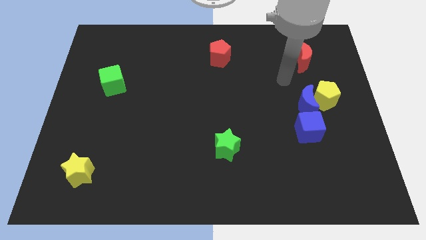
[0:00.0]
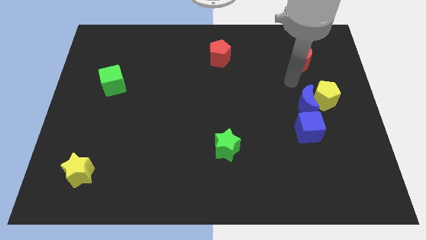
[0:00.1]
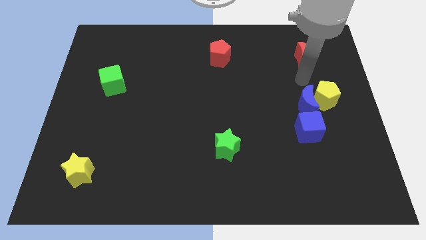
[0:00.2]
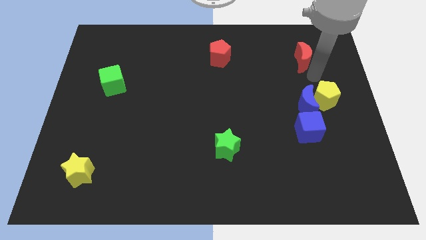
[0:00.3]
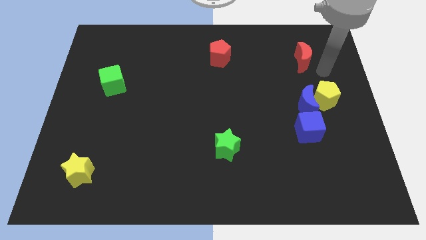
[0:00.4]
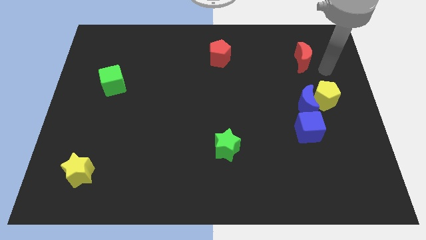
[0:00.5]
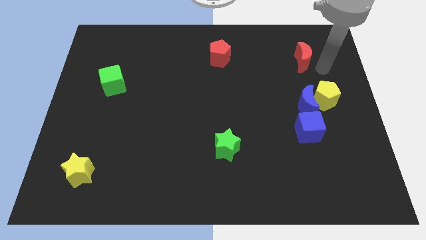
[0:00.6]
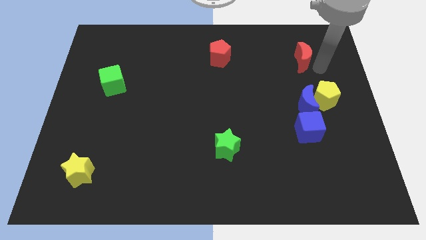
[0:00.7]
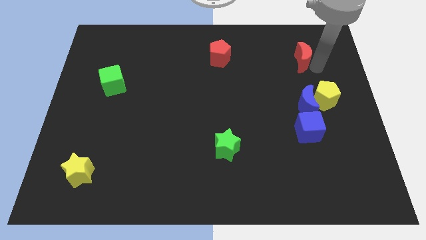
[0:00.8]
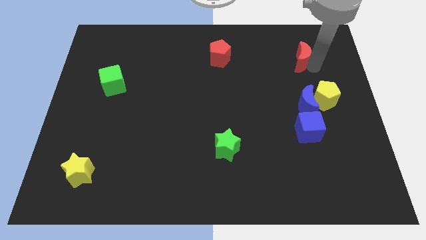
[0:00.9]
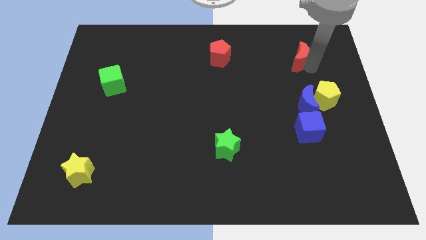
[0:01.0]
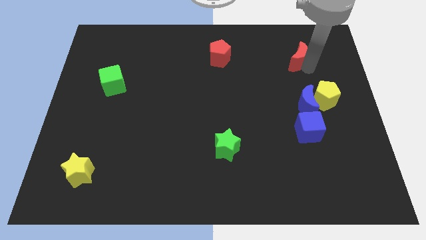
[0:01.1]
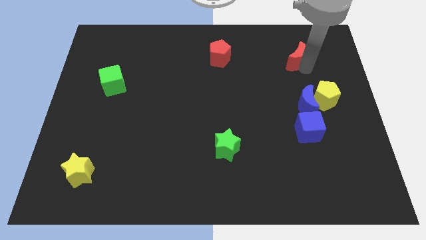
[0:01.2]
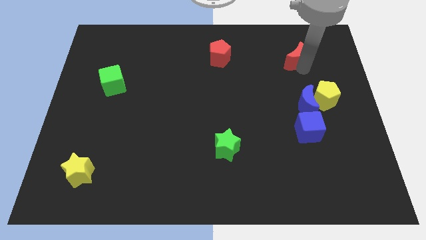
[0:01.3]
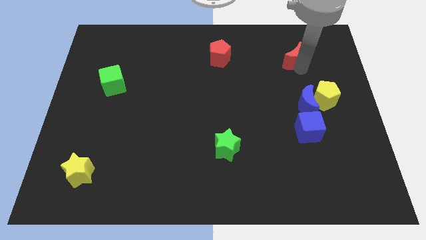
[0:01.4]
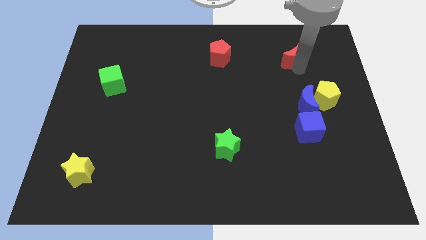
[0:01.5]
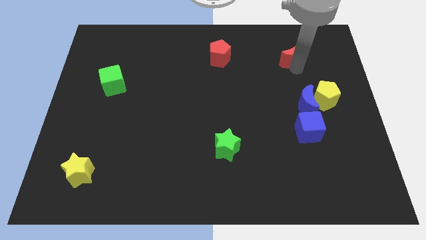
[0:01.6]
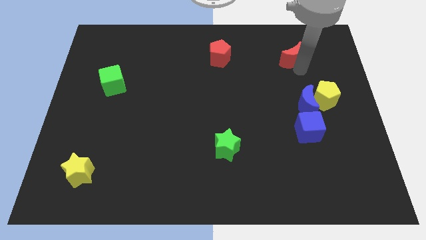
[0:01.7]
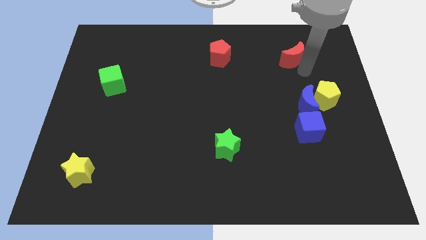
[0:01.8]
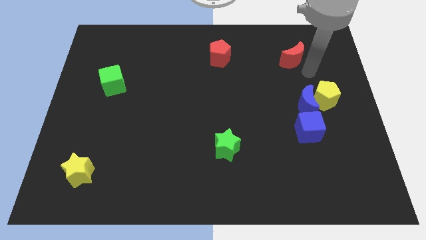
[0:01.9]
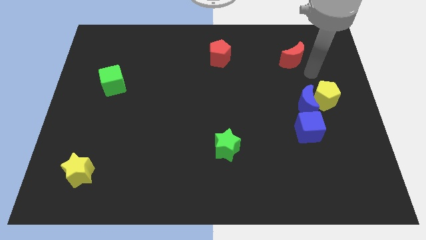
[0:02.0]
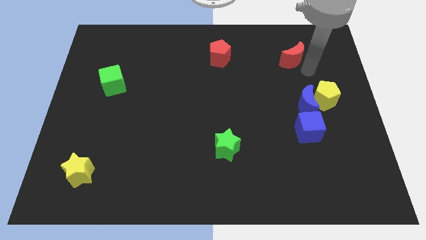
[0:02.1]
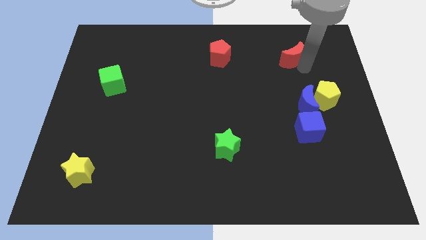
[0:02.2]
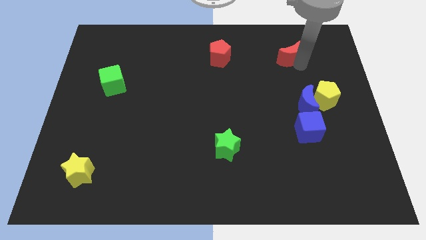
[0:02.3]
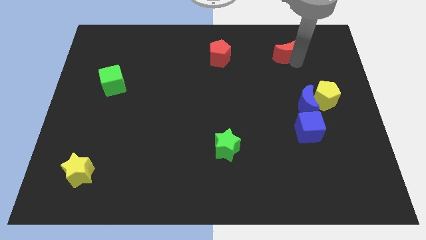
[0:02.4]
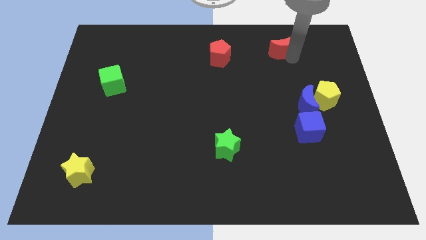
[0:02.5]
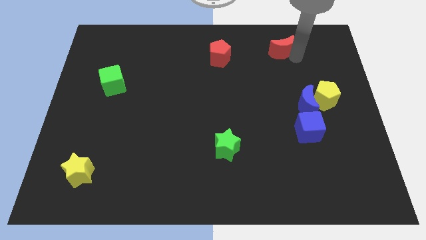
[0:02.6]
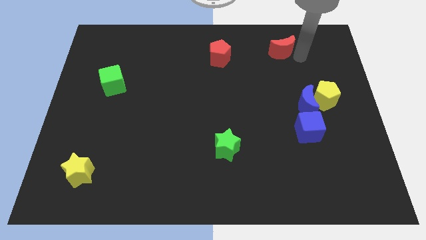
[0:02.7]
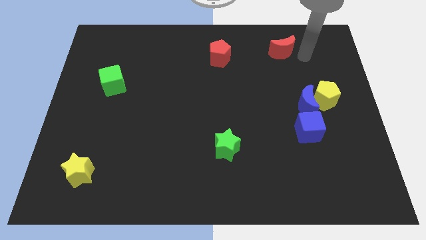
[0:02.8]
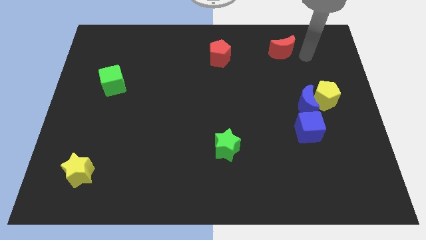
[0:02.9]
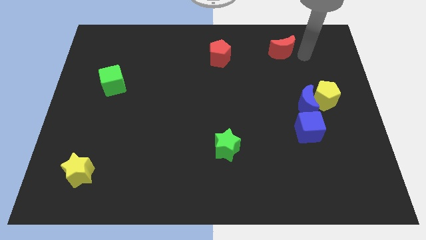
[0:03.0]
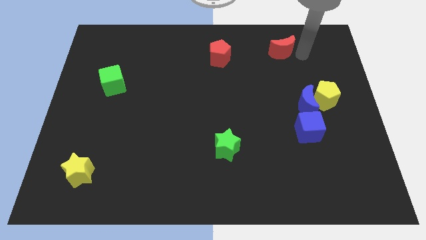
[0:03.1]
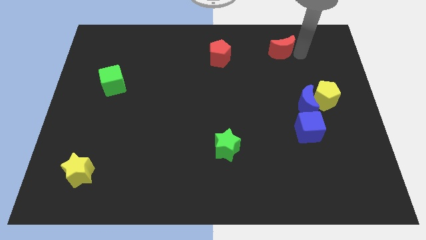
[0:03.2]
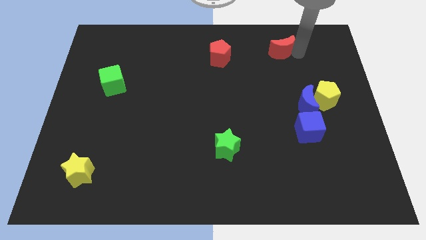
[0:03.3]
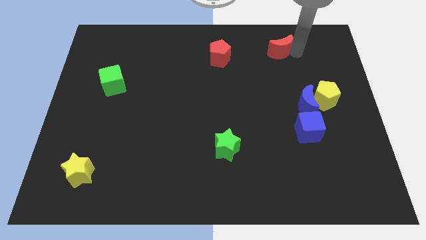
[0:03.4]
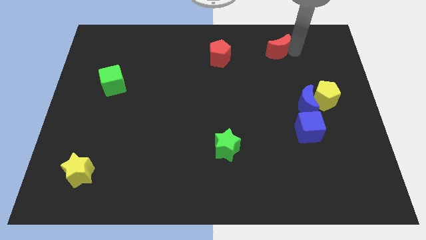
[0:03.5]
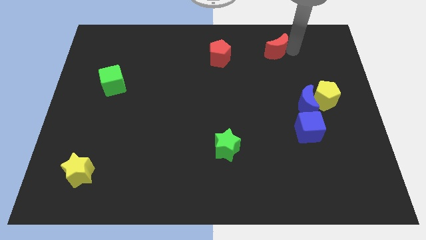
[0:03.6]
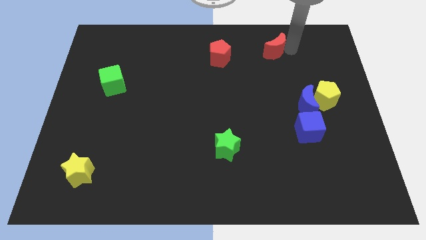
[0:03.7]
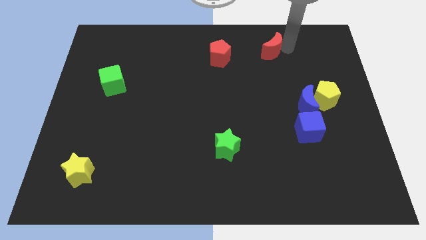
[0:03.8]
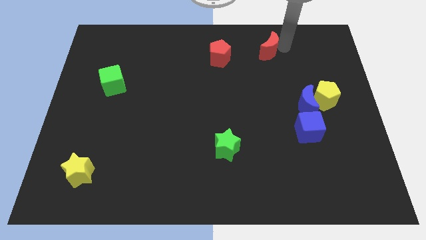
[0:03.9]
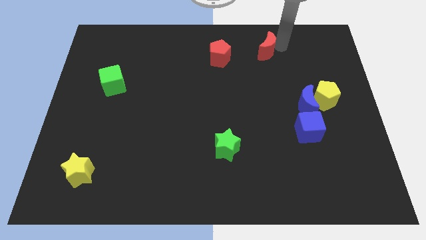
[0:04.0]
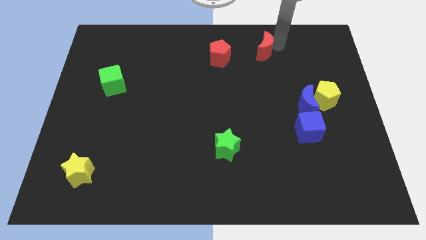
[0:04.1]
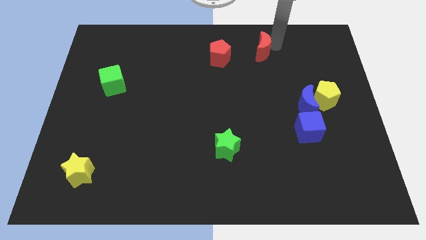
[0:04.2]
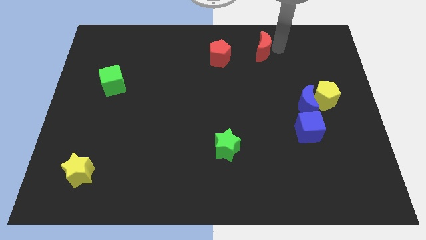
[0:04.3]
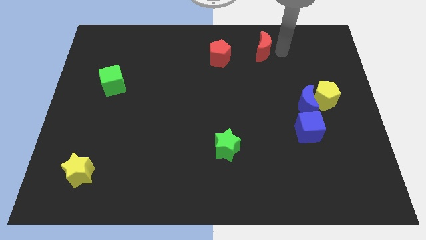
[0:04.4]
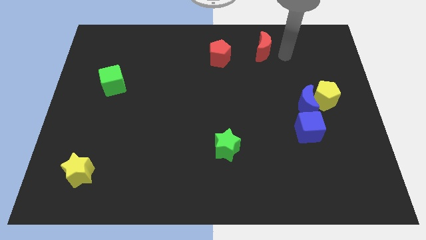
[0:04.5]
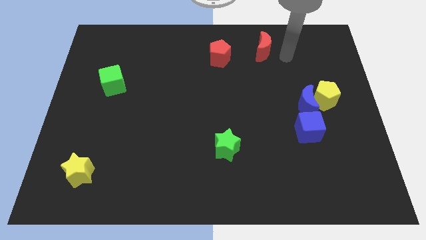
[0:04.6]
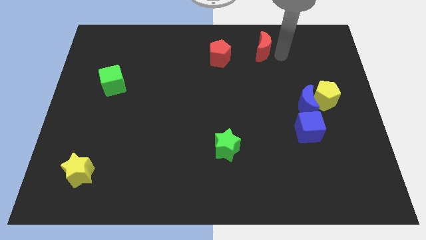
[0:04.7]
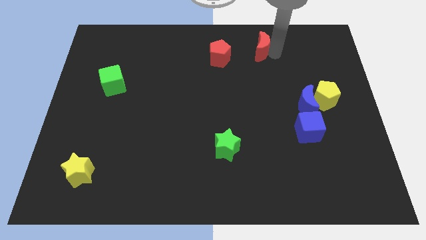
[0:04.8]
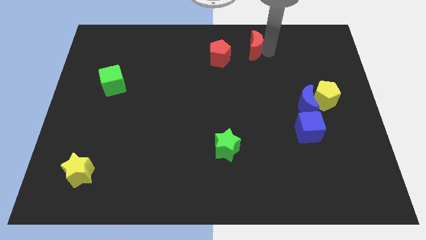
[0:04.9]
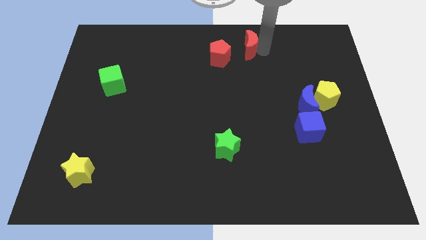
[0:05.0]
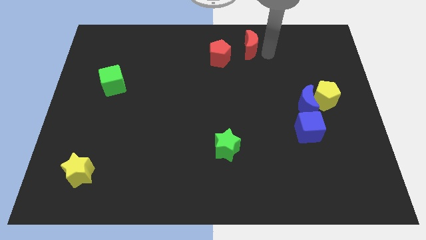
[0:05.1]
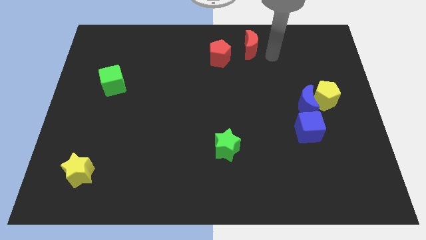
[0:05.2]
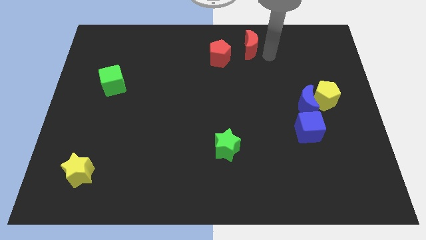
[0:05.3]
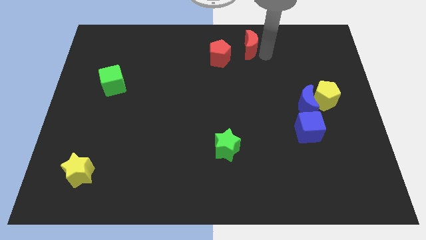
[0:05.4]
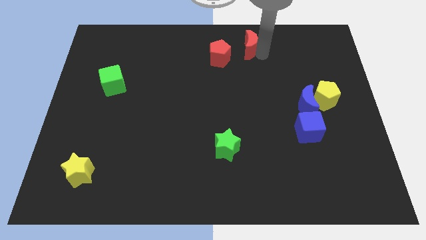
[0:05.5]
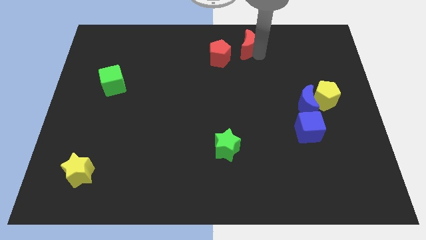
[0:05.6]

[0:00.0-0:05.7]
slide the red moon to the top
